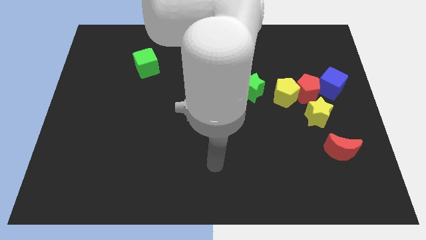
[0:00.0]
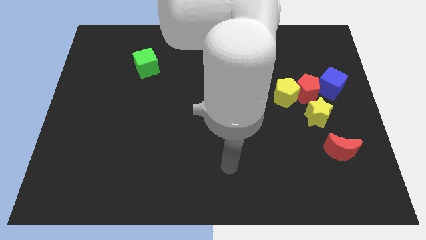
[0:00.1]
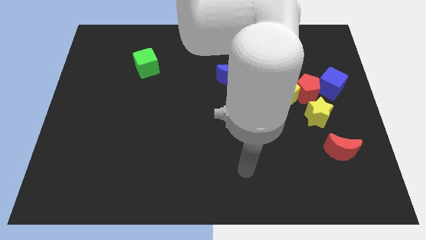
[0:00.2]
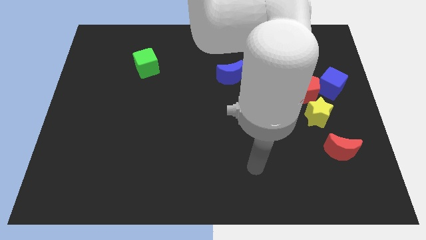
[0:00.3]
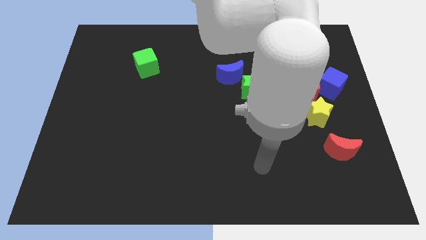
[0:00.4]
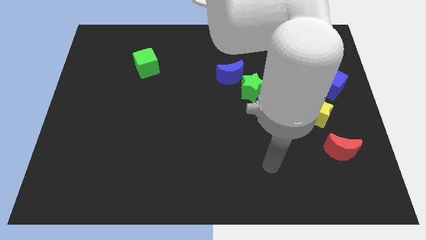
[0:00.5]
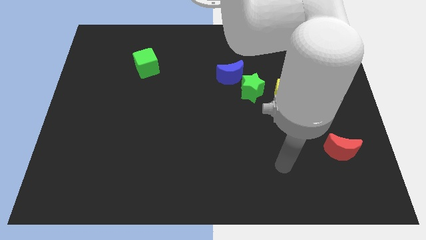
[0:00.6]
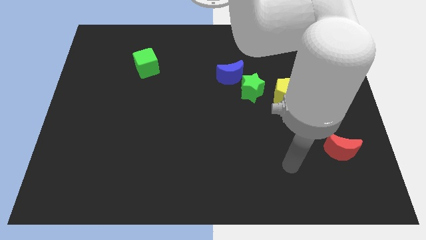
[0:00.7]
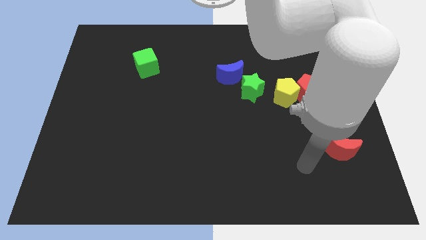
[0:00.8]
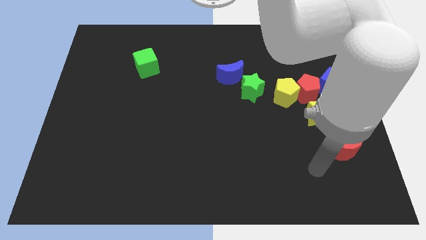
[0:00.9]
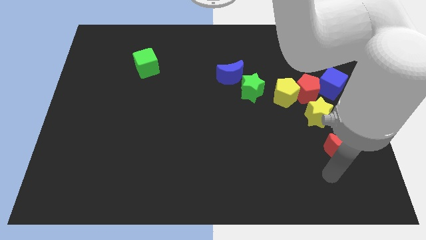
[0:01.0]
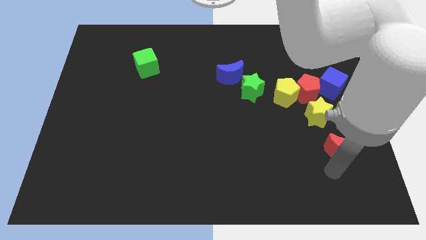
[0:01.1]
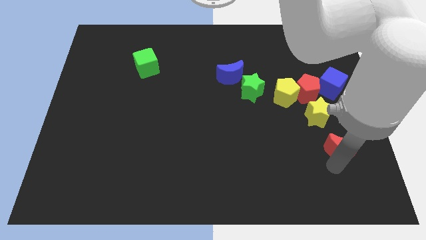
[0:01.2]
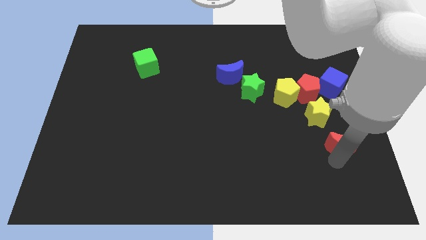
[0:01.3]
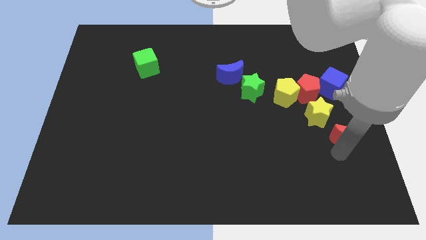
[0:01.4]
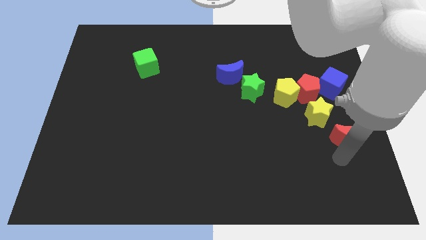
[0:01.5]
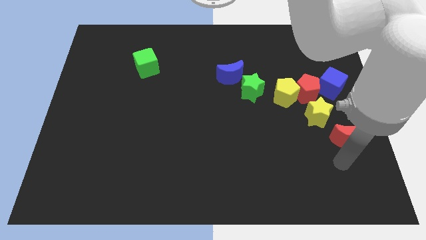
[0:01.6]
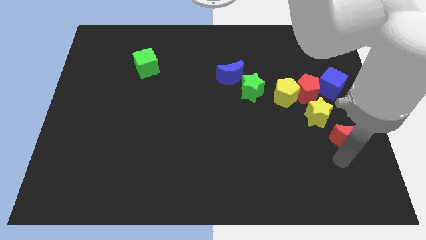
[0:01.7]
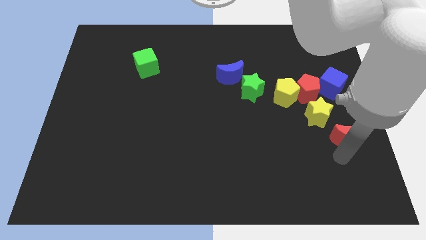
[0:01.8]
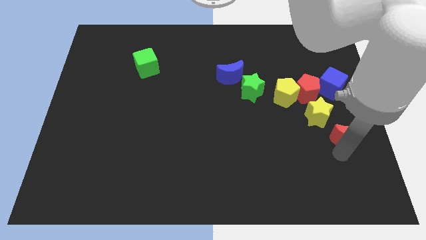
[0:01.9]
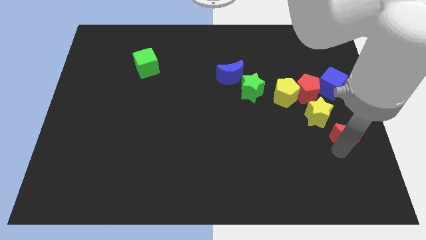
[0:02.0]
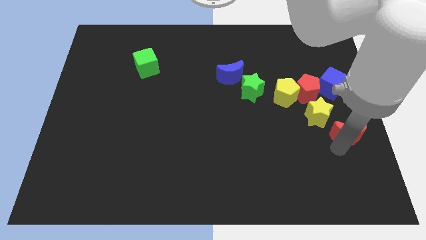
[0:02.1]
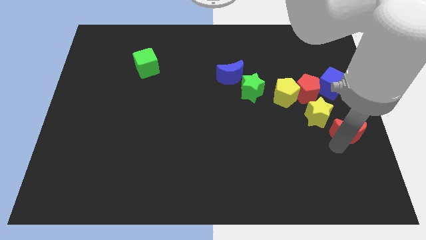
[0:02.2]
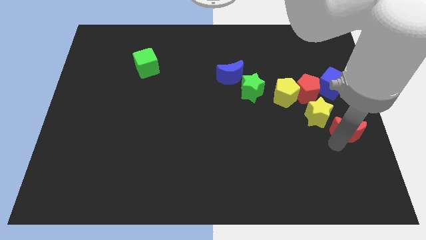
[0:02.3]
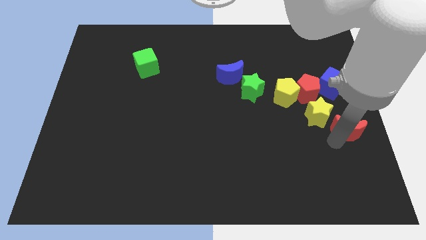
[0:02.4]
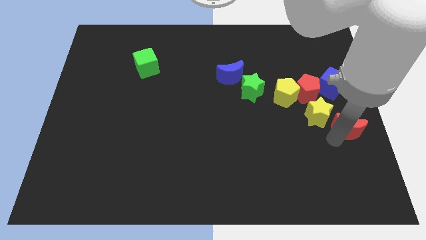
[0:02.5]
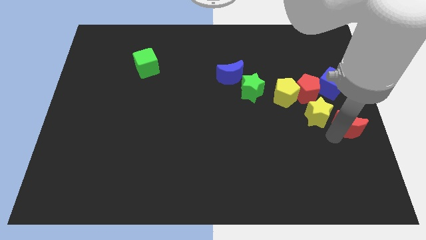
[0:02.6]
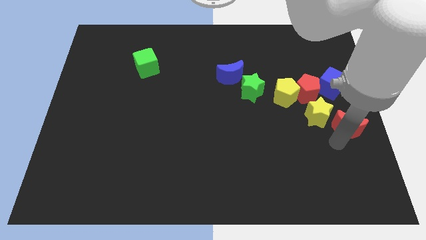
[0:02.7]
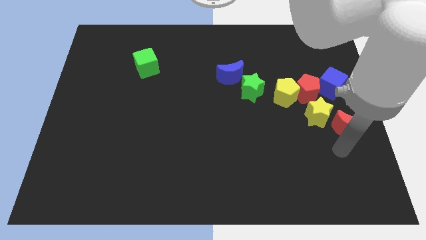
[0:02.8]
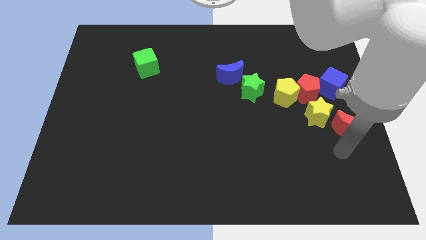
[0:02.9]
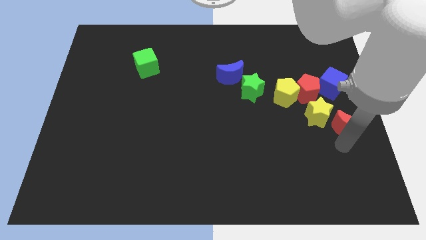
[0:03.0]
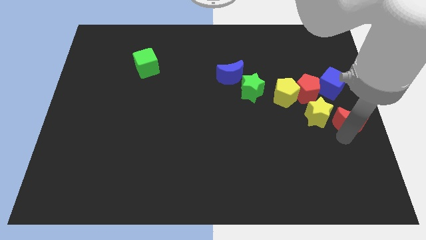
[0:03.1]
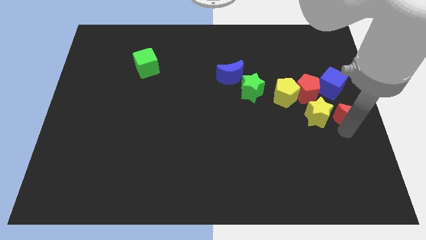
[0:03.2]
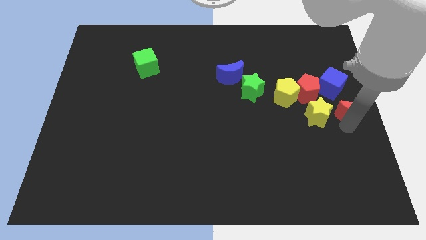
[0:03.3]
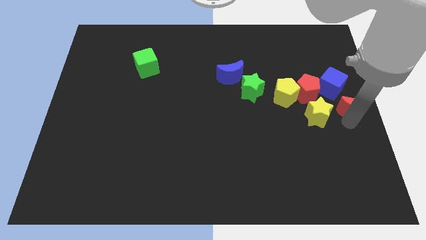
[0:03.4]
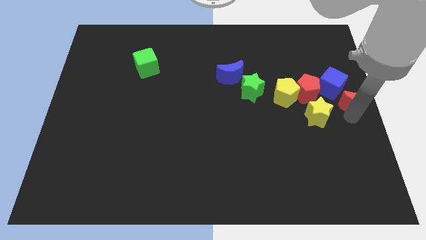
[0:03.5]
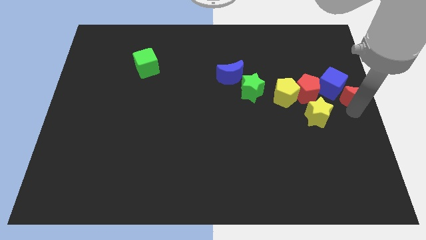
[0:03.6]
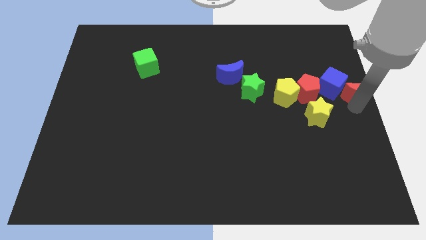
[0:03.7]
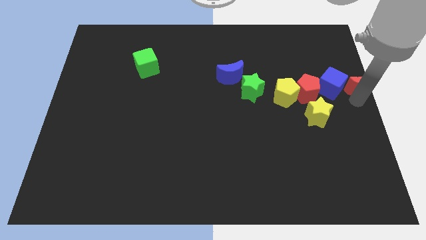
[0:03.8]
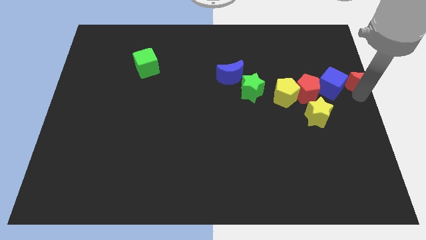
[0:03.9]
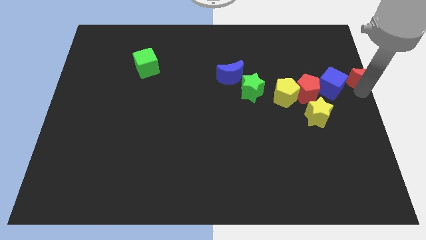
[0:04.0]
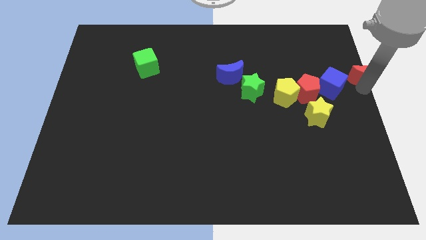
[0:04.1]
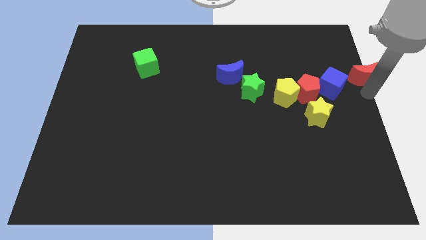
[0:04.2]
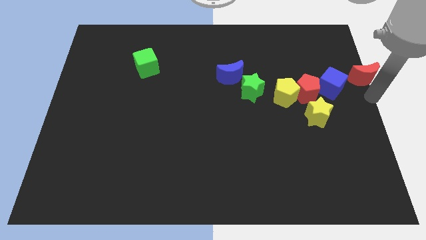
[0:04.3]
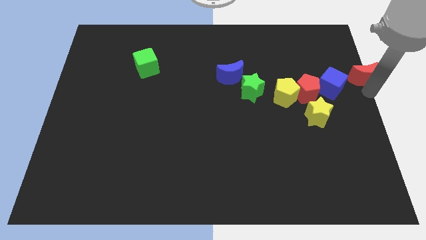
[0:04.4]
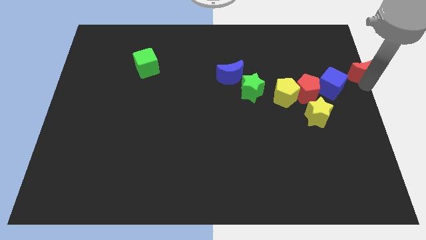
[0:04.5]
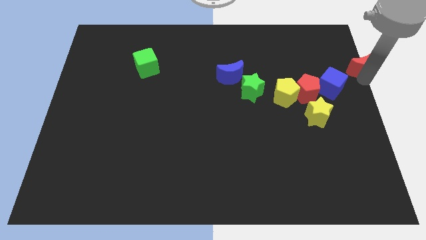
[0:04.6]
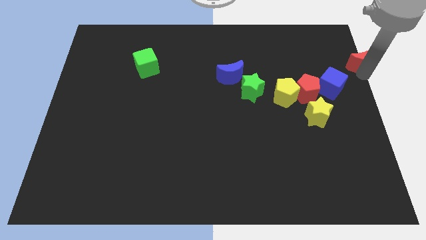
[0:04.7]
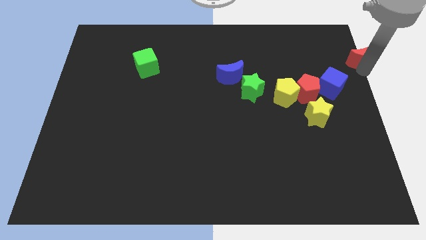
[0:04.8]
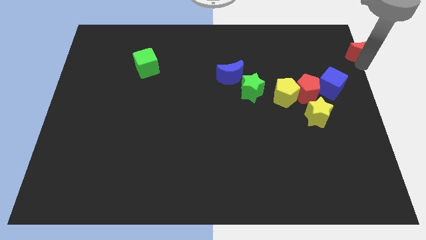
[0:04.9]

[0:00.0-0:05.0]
put the red moon to the top right corner

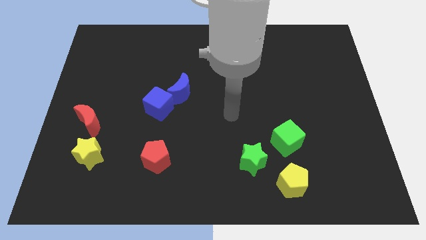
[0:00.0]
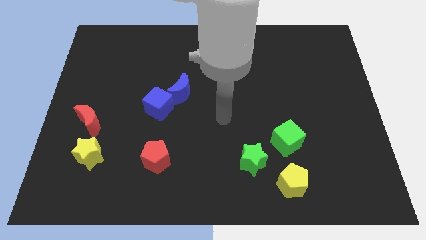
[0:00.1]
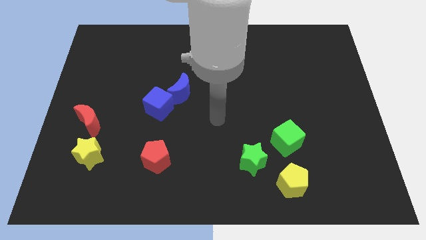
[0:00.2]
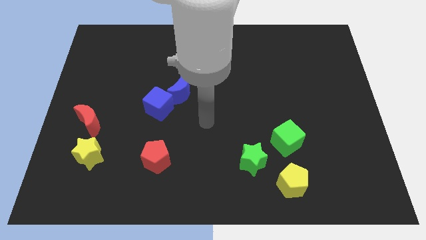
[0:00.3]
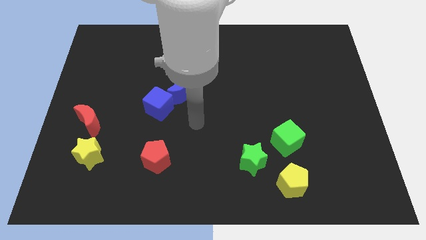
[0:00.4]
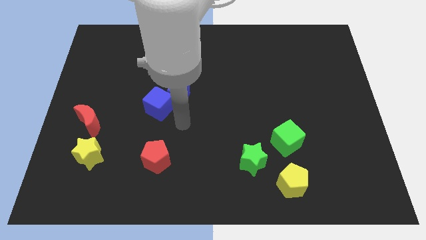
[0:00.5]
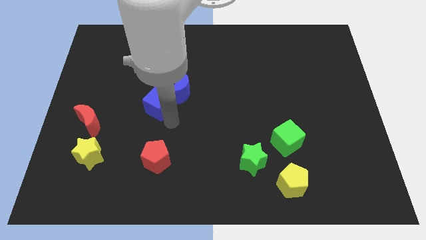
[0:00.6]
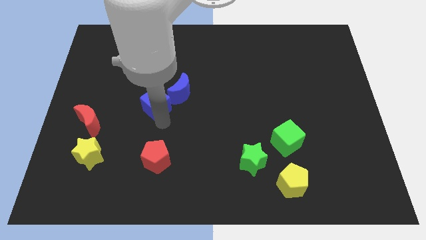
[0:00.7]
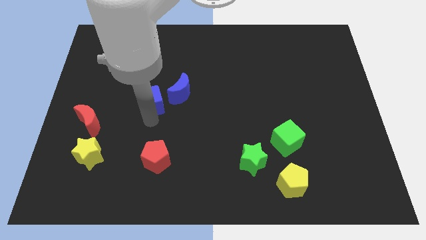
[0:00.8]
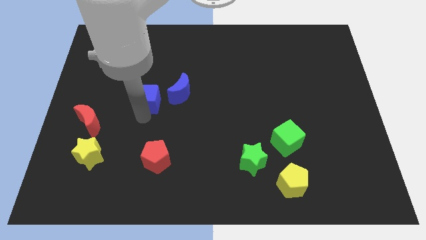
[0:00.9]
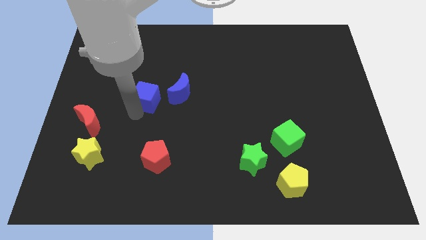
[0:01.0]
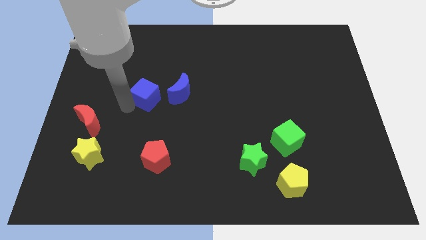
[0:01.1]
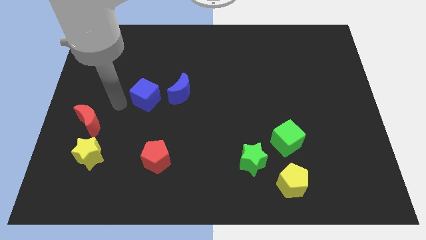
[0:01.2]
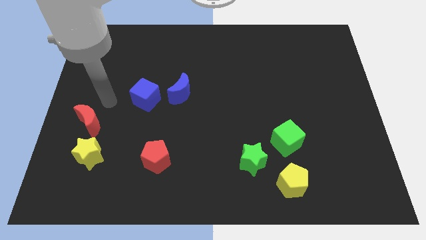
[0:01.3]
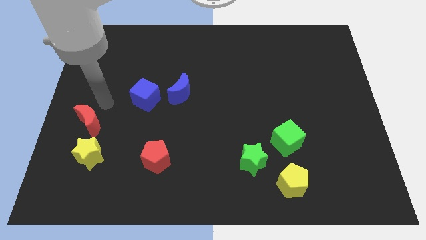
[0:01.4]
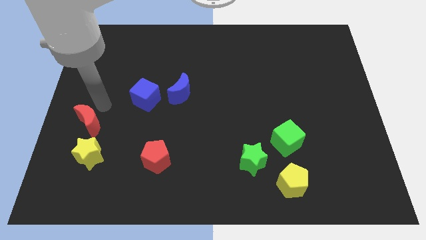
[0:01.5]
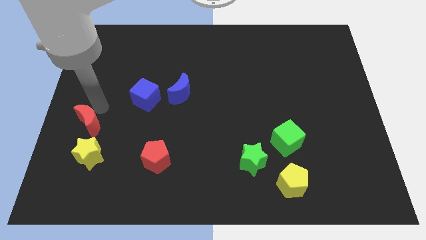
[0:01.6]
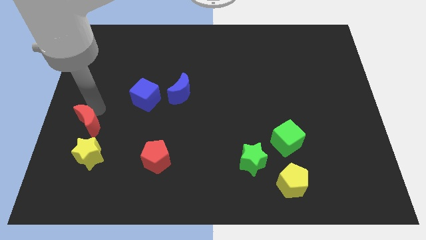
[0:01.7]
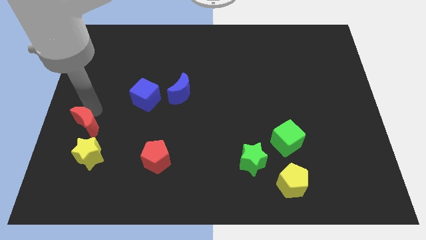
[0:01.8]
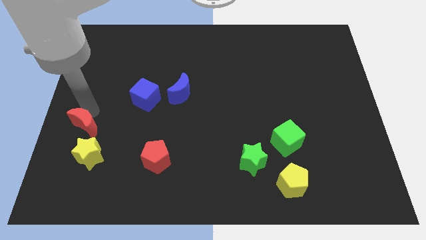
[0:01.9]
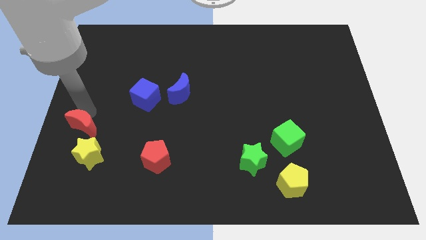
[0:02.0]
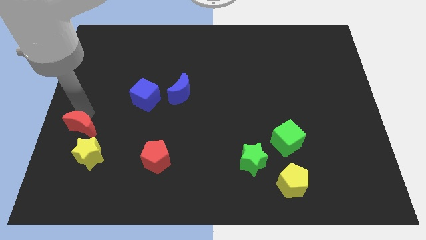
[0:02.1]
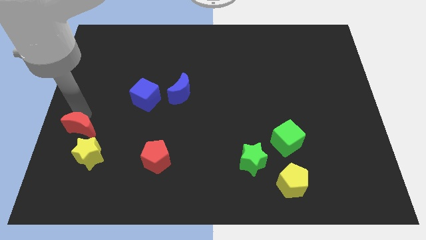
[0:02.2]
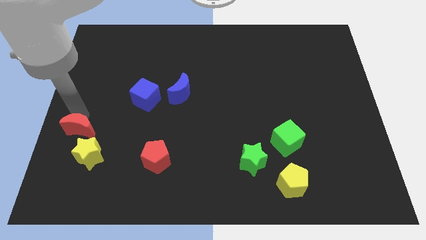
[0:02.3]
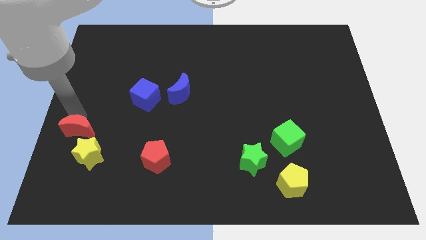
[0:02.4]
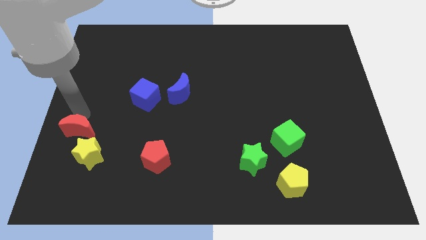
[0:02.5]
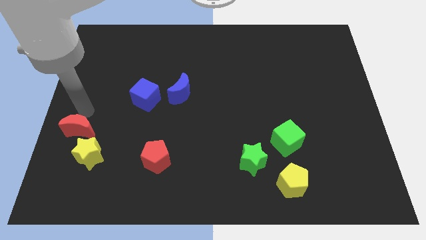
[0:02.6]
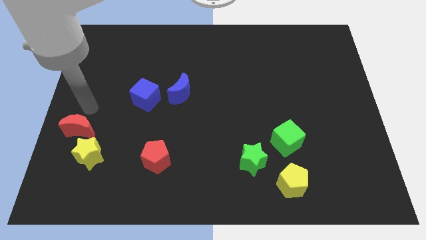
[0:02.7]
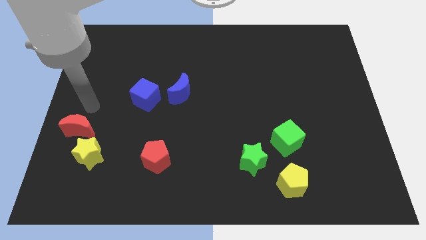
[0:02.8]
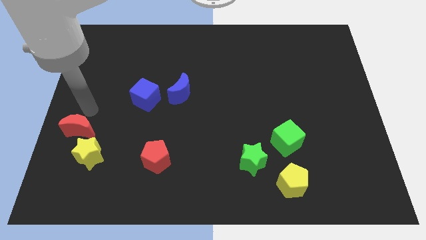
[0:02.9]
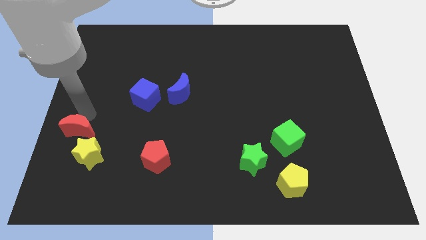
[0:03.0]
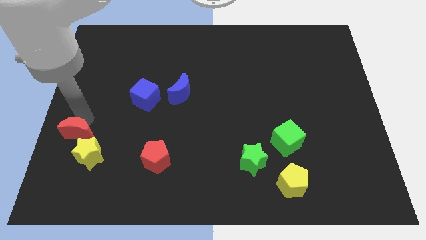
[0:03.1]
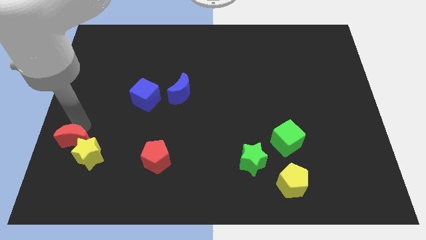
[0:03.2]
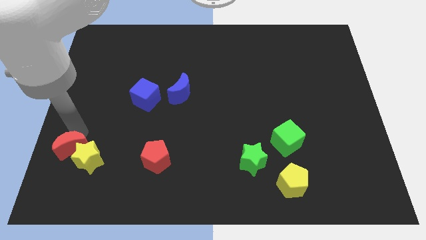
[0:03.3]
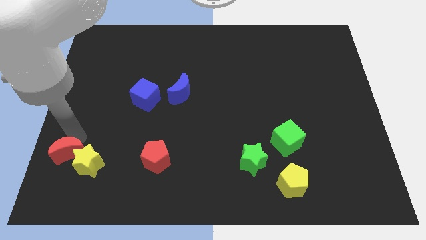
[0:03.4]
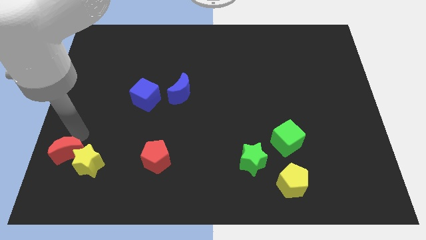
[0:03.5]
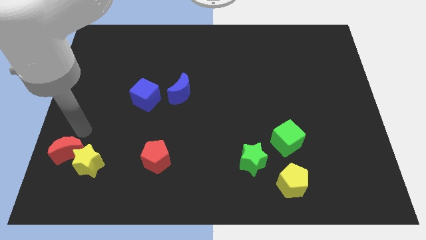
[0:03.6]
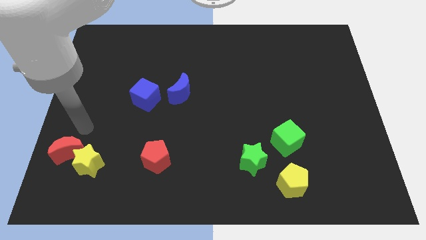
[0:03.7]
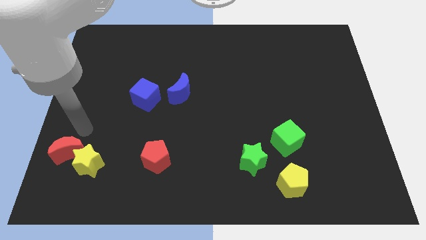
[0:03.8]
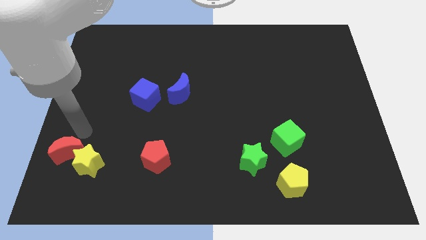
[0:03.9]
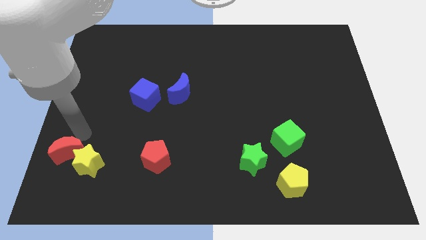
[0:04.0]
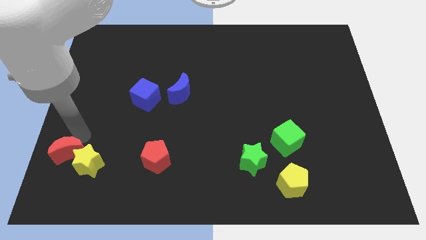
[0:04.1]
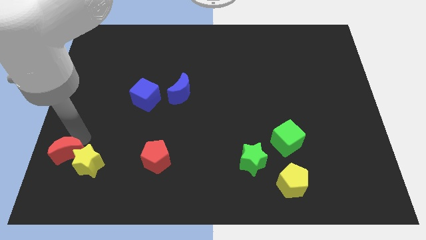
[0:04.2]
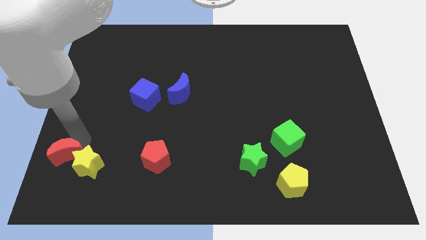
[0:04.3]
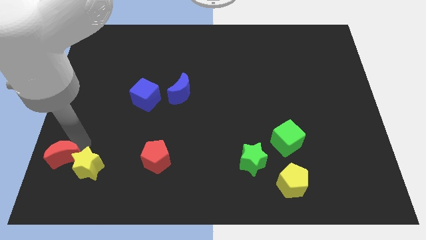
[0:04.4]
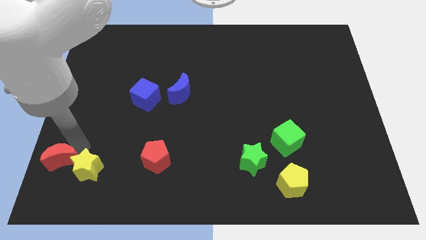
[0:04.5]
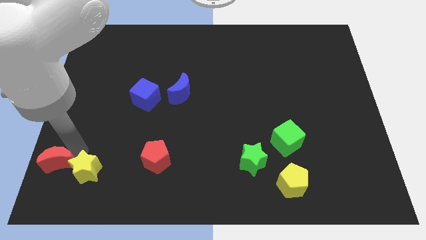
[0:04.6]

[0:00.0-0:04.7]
put the red moon to the bottom left
